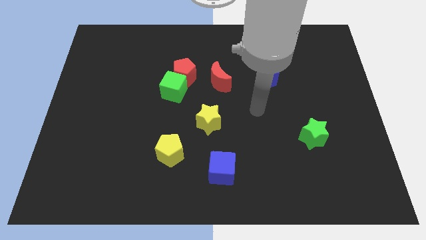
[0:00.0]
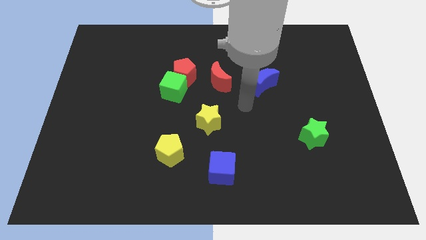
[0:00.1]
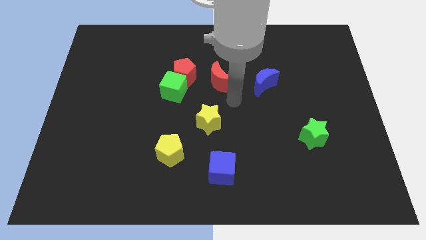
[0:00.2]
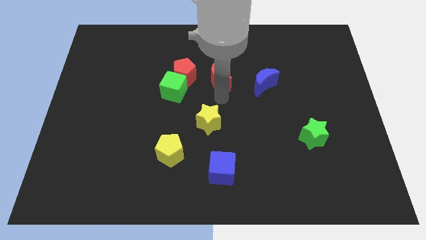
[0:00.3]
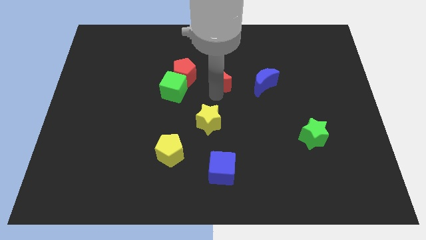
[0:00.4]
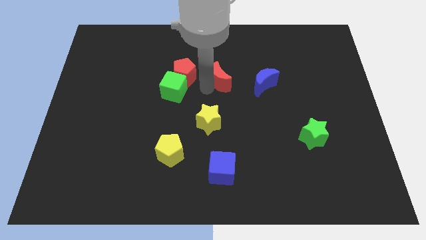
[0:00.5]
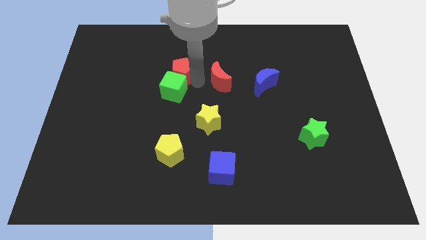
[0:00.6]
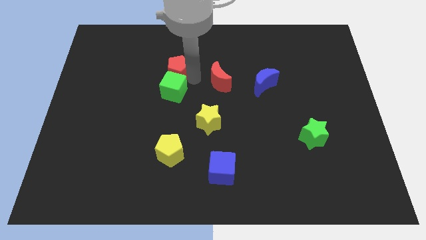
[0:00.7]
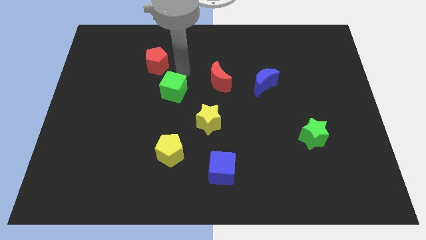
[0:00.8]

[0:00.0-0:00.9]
separate the green cube from the red pentagon

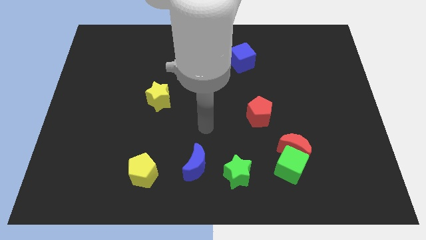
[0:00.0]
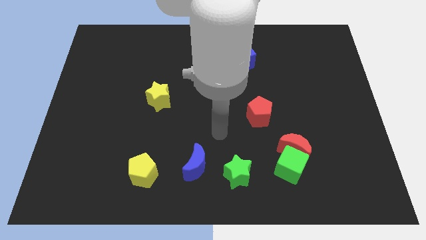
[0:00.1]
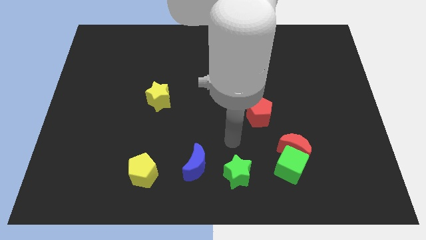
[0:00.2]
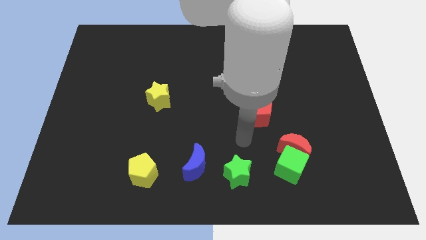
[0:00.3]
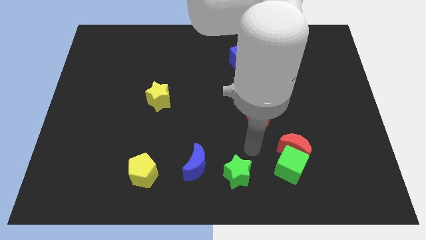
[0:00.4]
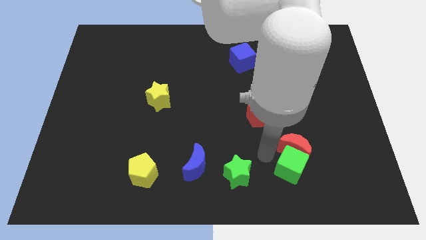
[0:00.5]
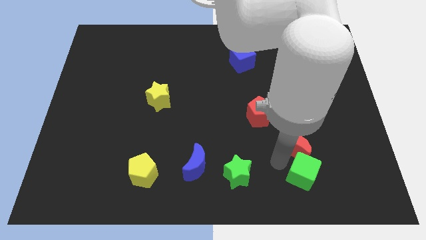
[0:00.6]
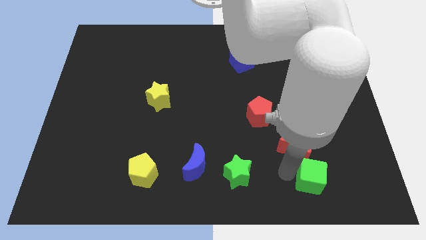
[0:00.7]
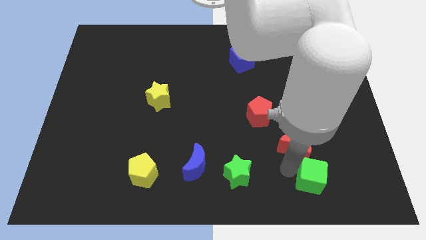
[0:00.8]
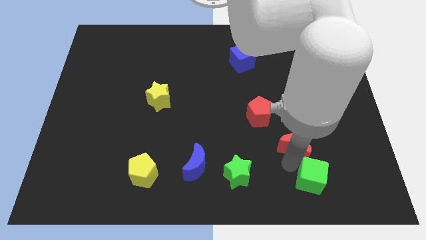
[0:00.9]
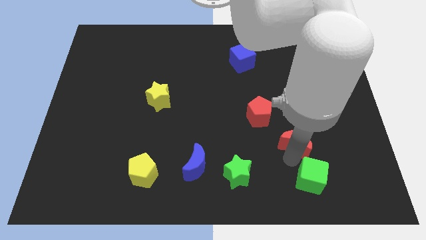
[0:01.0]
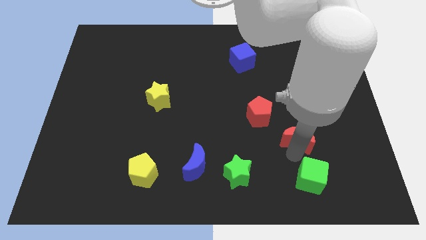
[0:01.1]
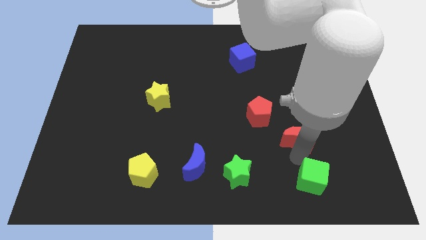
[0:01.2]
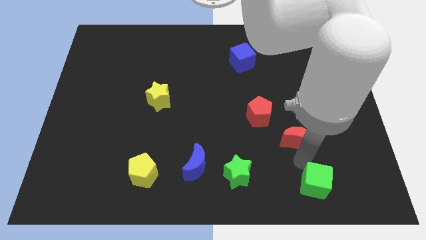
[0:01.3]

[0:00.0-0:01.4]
separate the red moon from the green cube

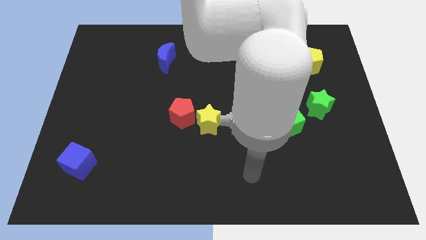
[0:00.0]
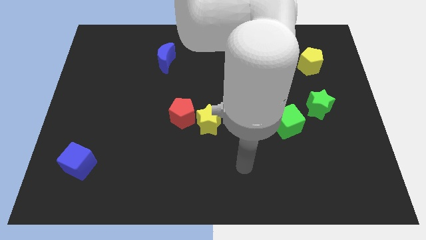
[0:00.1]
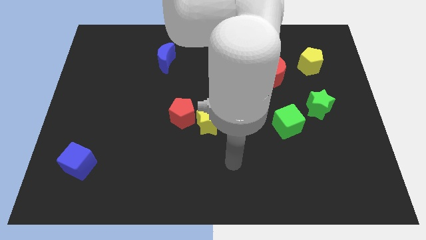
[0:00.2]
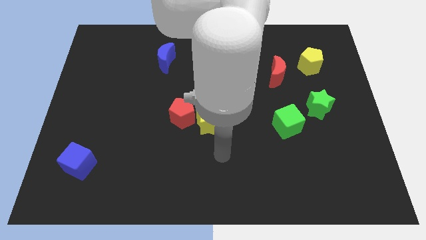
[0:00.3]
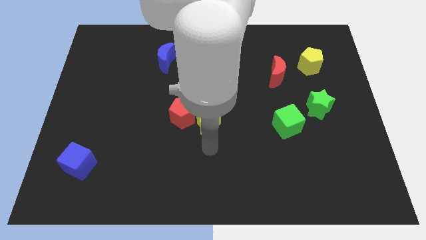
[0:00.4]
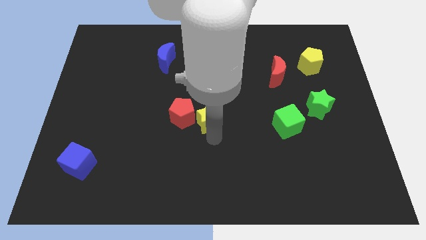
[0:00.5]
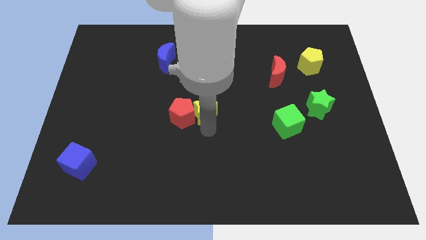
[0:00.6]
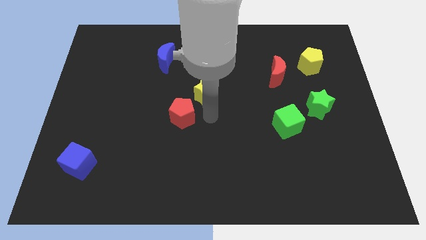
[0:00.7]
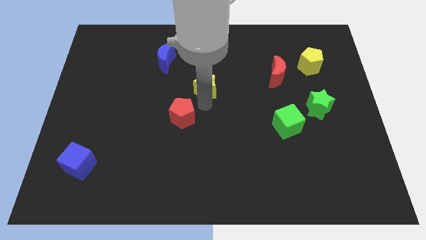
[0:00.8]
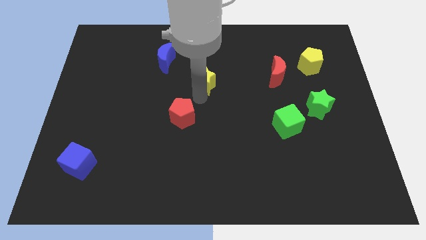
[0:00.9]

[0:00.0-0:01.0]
separate the red pentagon from the yellow star

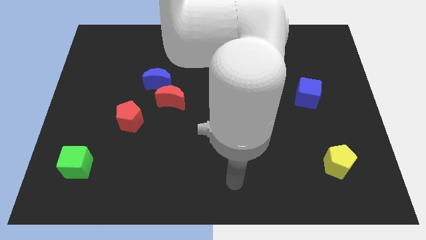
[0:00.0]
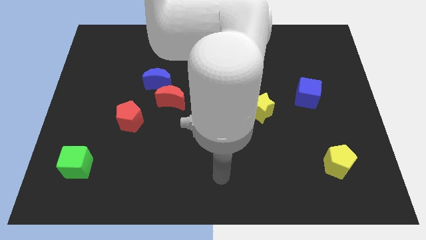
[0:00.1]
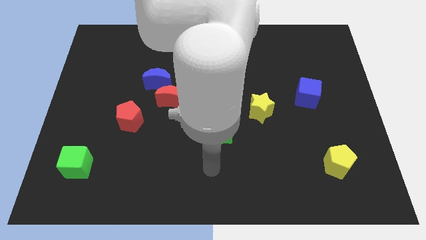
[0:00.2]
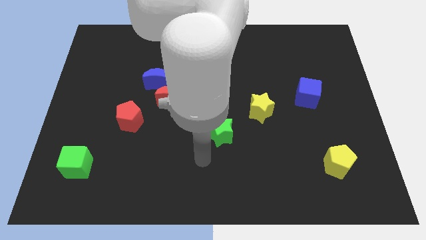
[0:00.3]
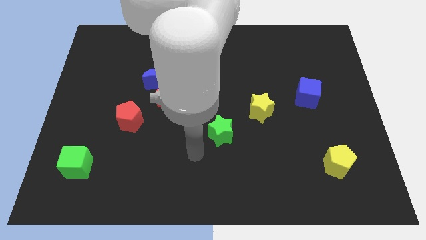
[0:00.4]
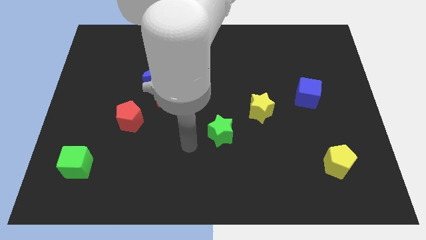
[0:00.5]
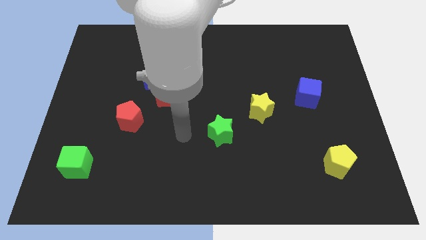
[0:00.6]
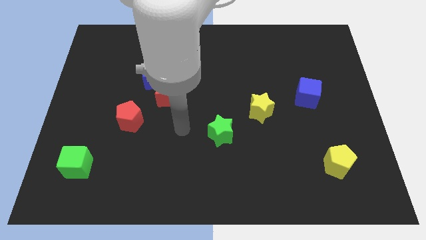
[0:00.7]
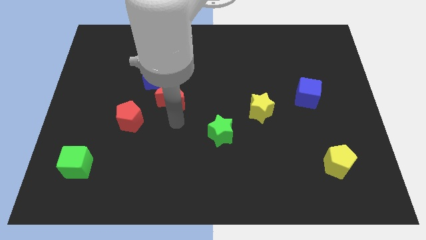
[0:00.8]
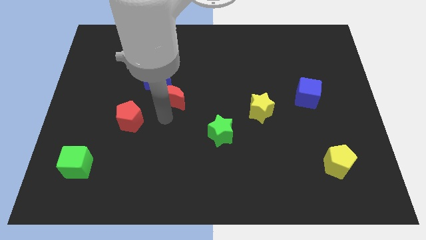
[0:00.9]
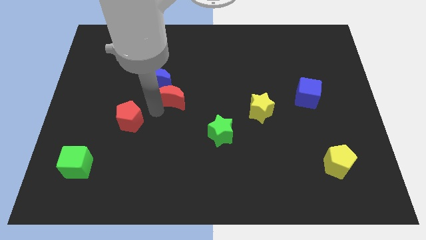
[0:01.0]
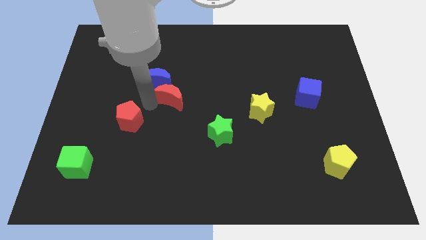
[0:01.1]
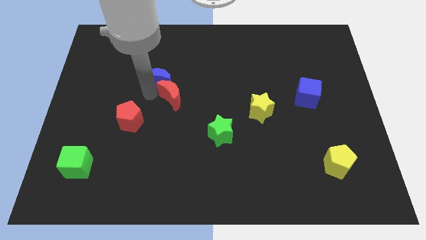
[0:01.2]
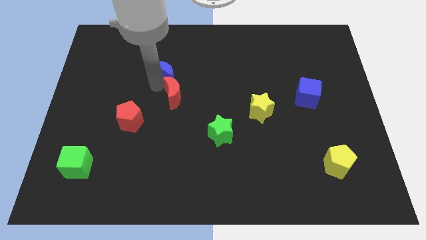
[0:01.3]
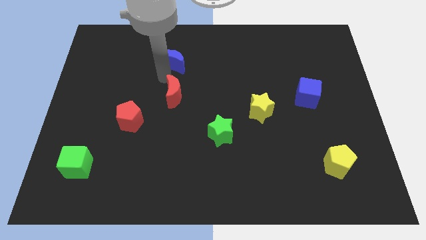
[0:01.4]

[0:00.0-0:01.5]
move the red moon away from the blue moon

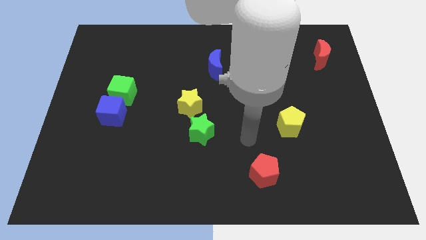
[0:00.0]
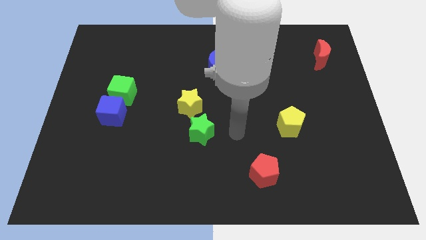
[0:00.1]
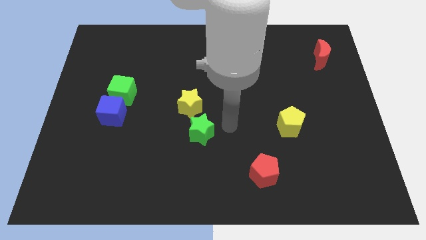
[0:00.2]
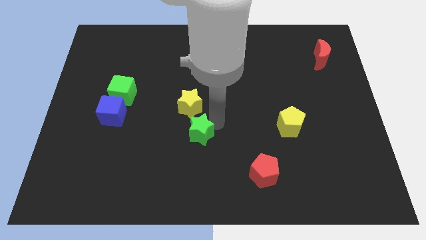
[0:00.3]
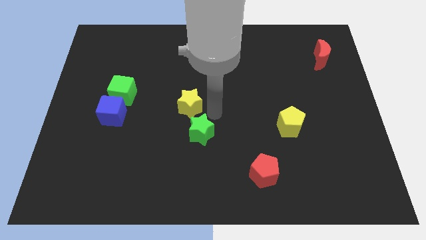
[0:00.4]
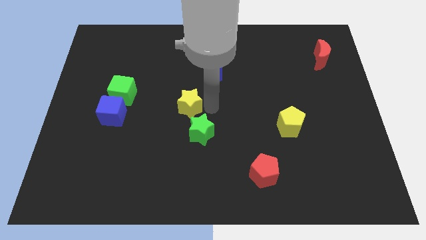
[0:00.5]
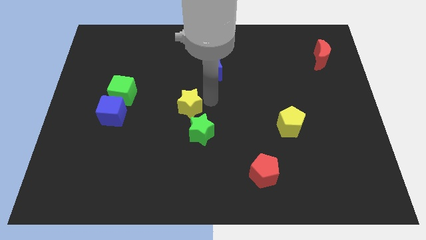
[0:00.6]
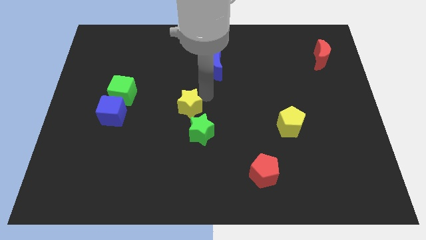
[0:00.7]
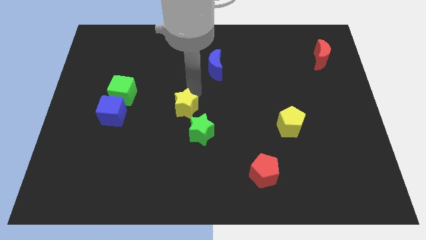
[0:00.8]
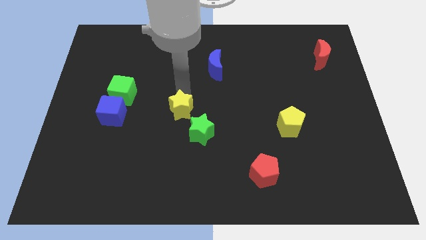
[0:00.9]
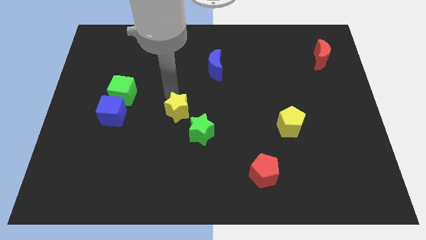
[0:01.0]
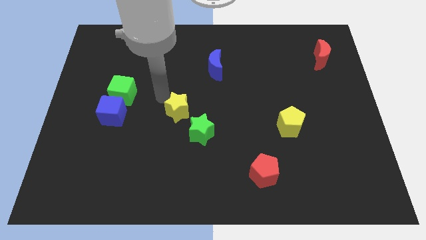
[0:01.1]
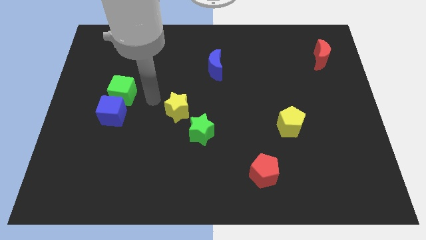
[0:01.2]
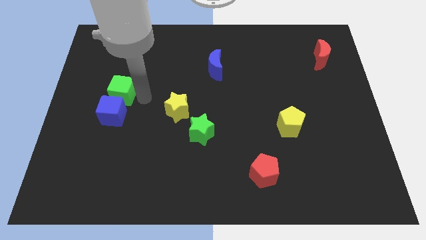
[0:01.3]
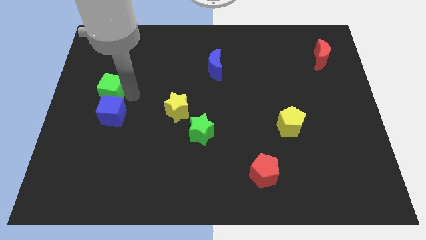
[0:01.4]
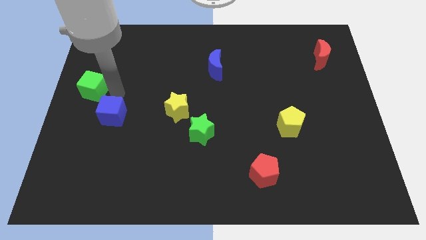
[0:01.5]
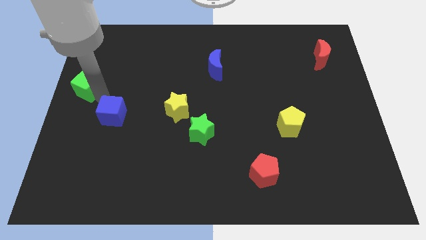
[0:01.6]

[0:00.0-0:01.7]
separate the blue cube from the green cube

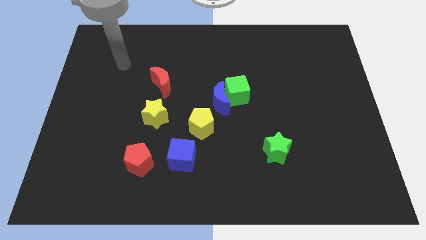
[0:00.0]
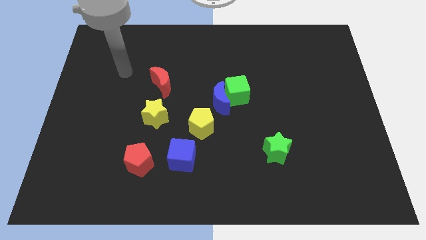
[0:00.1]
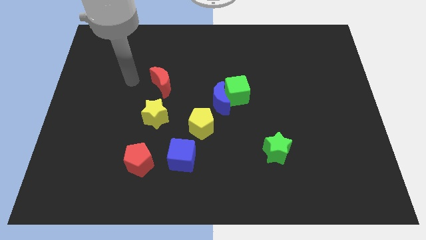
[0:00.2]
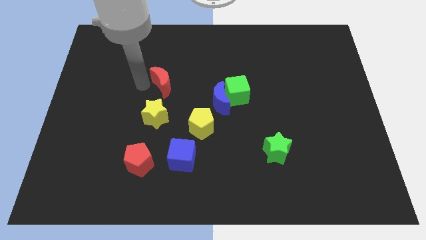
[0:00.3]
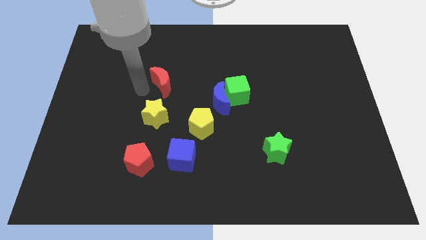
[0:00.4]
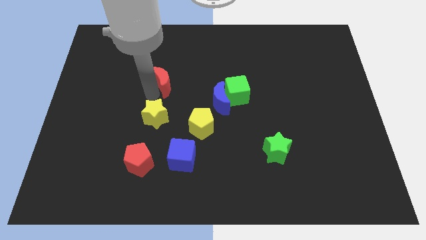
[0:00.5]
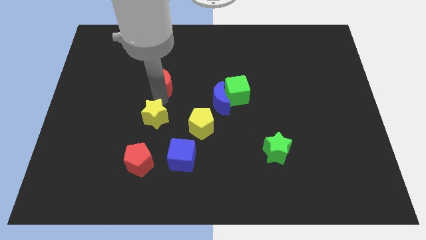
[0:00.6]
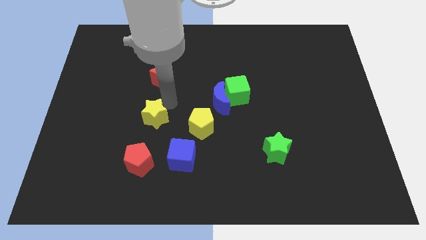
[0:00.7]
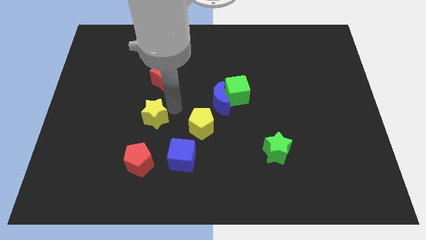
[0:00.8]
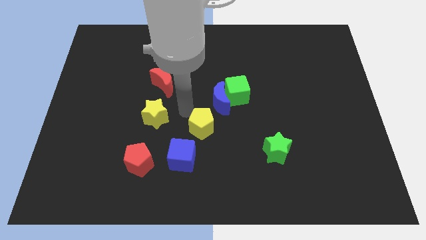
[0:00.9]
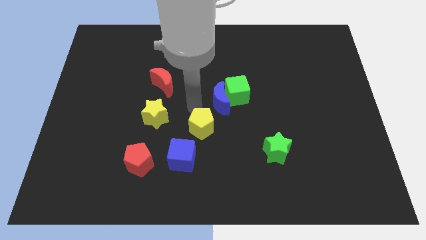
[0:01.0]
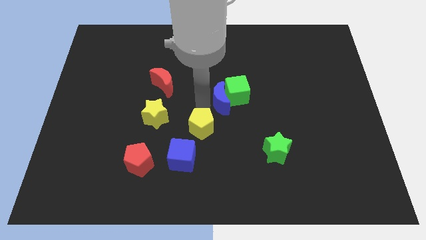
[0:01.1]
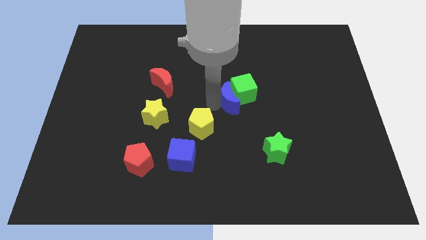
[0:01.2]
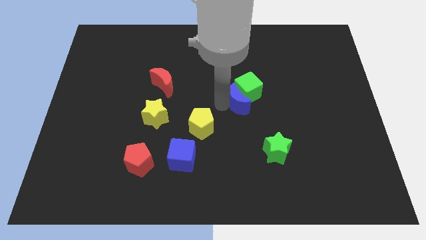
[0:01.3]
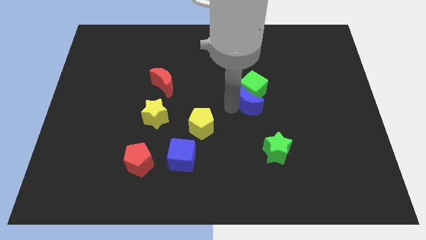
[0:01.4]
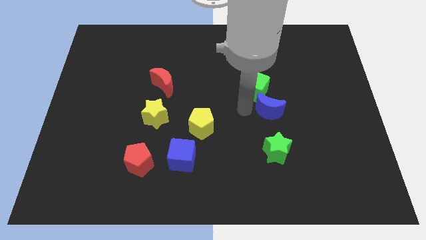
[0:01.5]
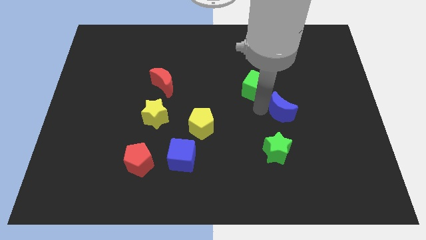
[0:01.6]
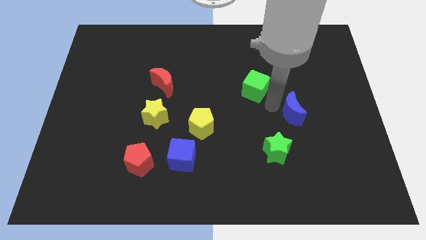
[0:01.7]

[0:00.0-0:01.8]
move the green cube away from the blue moon

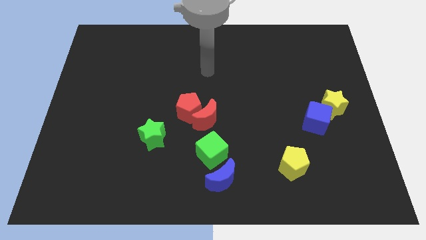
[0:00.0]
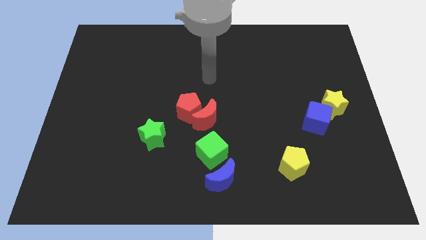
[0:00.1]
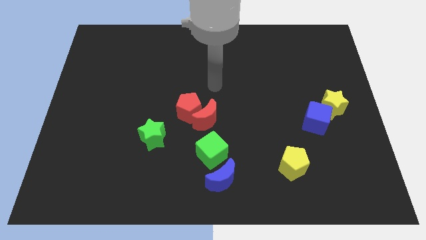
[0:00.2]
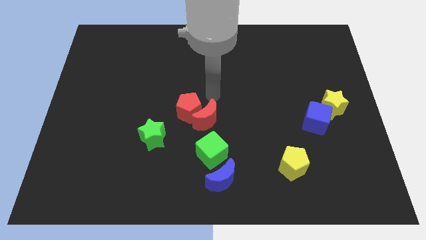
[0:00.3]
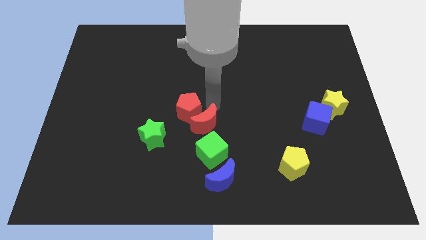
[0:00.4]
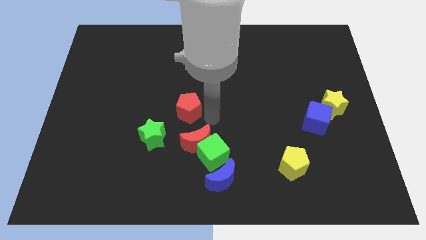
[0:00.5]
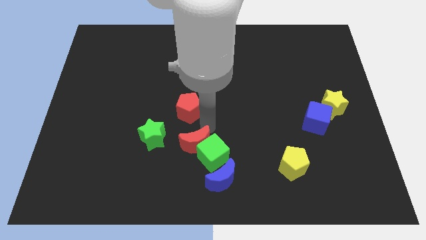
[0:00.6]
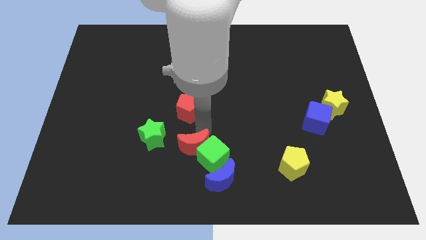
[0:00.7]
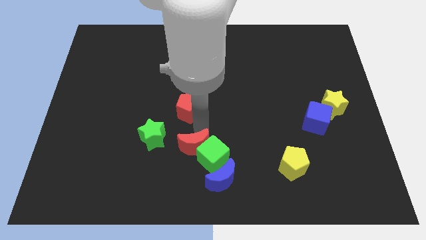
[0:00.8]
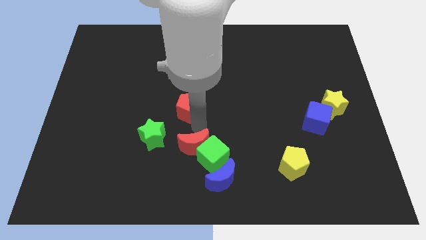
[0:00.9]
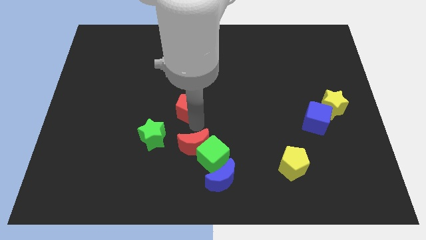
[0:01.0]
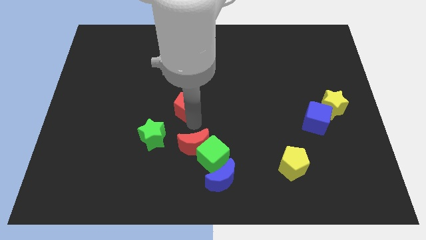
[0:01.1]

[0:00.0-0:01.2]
pull the red pentagon apart from the red moon
